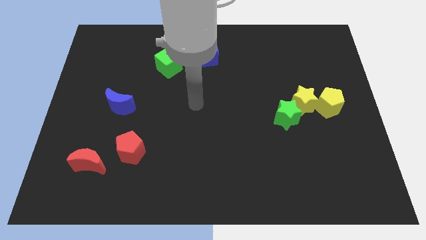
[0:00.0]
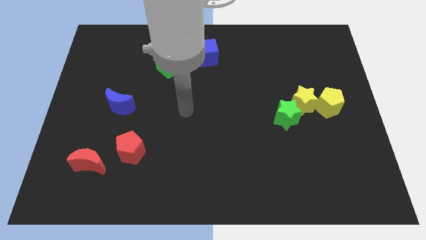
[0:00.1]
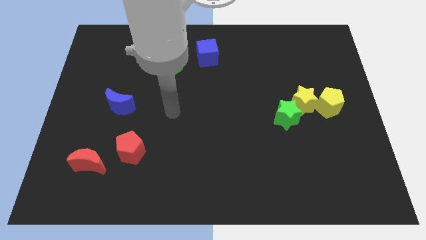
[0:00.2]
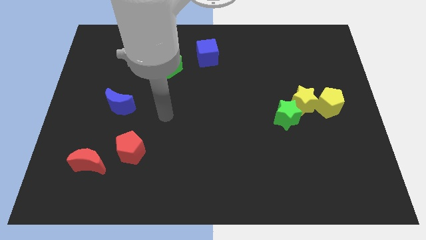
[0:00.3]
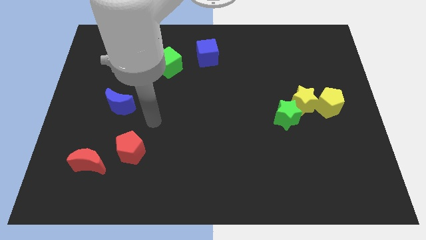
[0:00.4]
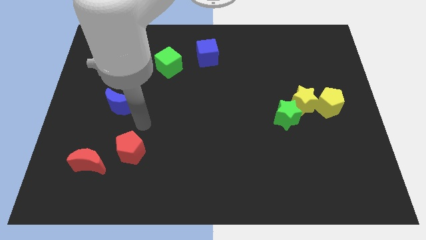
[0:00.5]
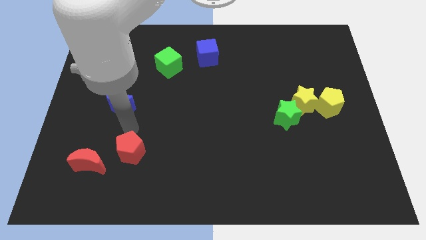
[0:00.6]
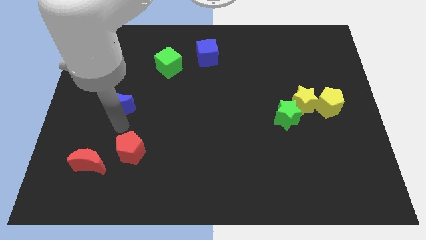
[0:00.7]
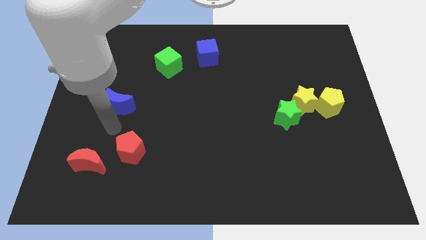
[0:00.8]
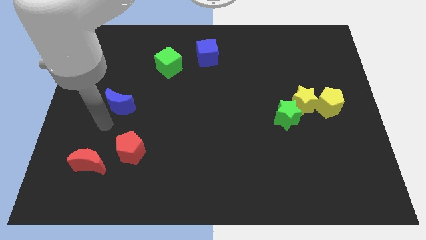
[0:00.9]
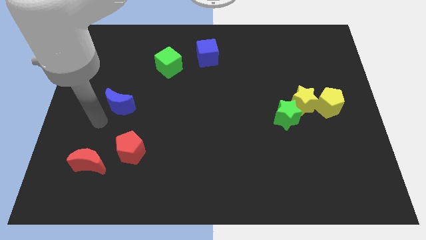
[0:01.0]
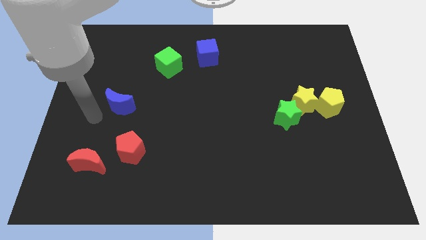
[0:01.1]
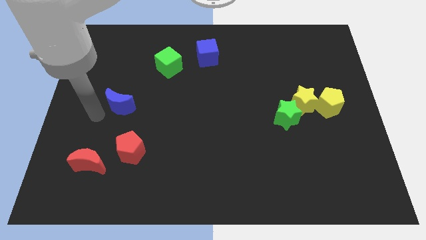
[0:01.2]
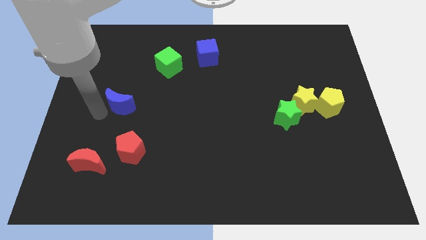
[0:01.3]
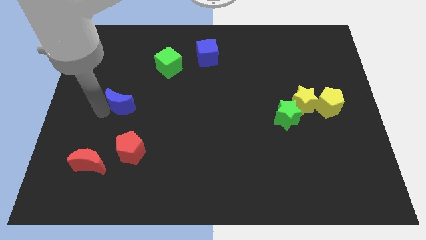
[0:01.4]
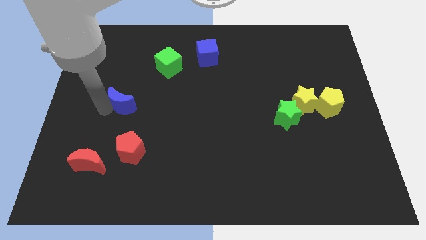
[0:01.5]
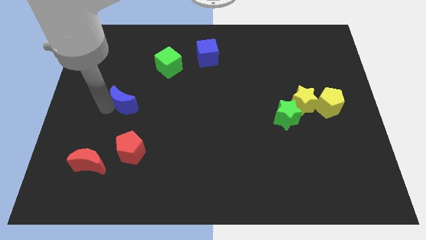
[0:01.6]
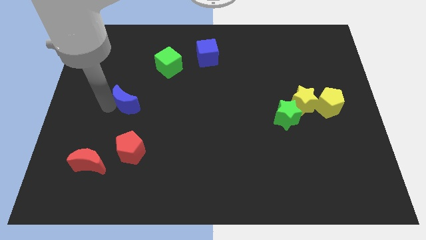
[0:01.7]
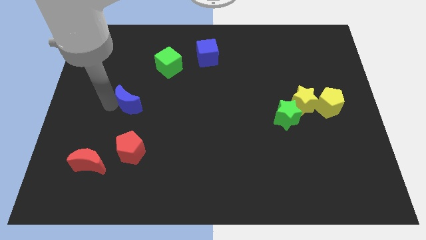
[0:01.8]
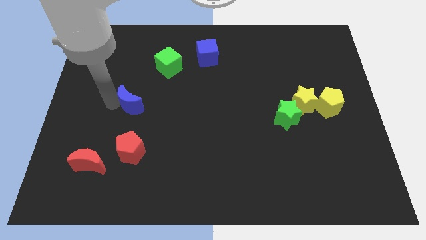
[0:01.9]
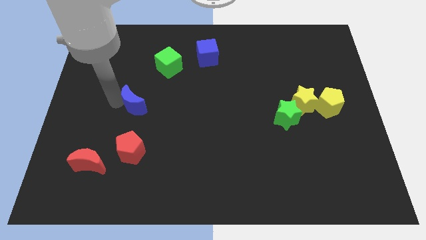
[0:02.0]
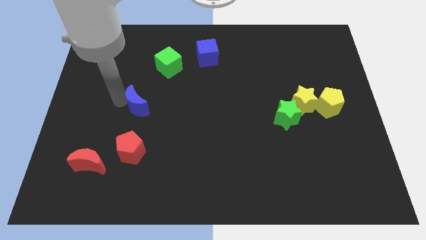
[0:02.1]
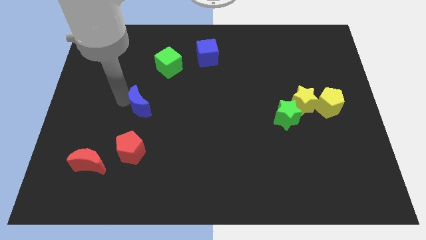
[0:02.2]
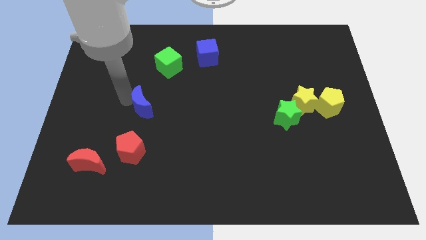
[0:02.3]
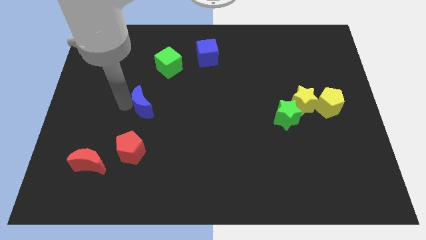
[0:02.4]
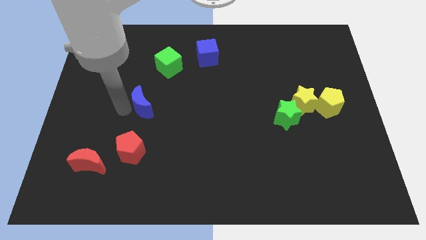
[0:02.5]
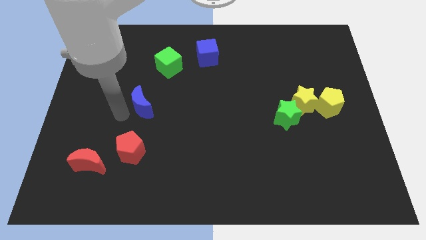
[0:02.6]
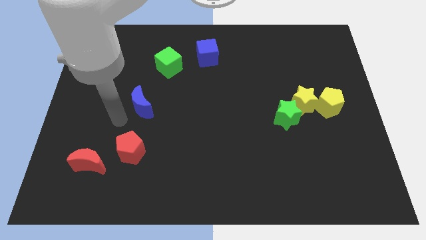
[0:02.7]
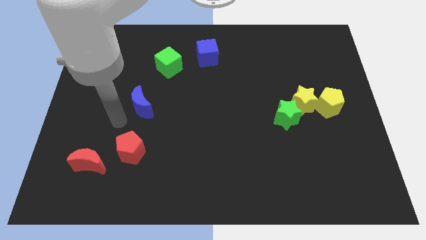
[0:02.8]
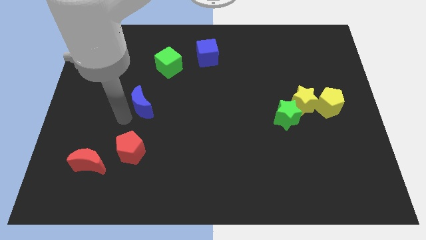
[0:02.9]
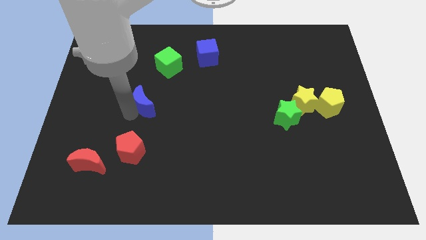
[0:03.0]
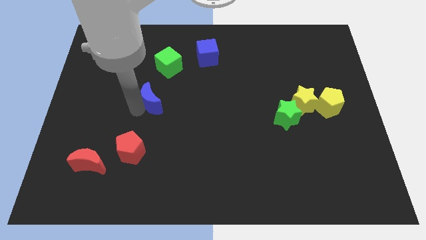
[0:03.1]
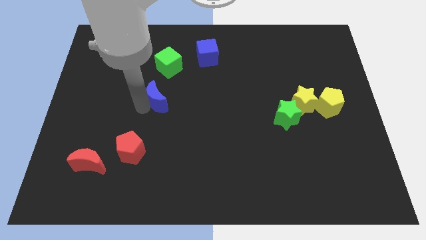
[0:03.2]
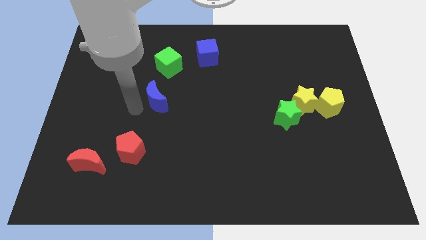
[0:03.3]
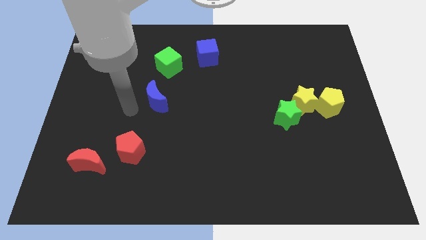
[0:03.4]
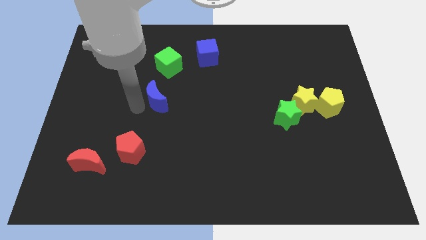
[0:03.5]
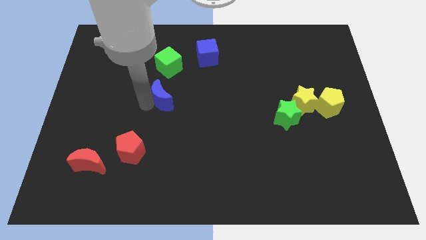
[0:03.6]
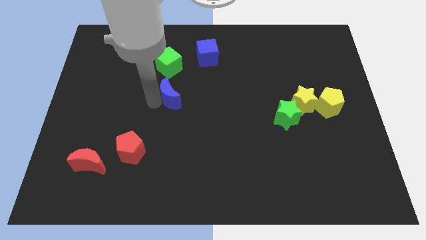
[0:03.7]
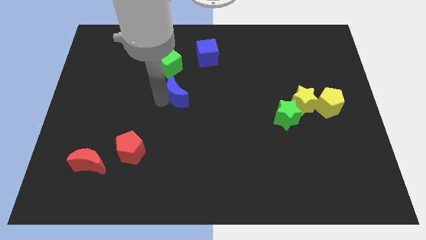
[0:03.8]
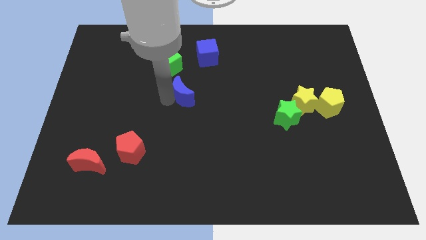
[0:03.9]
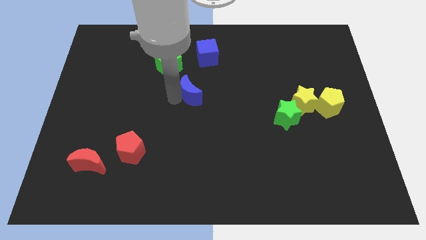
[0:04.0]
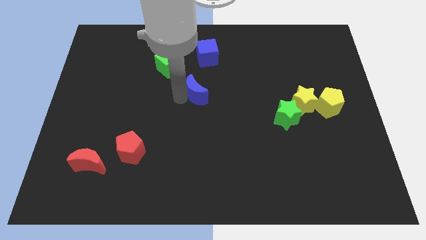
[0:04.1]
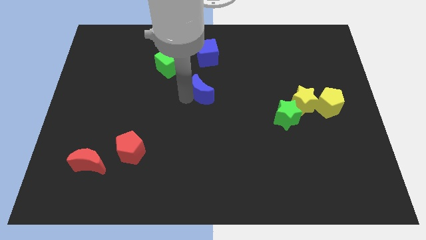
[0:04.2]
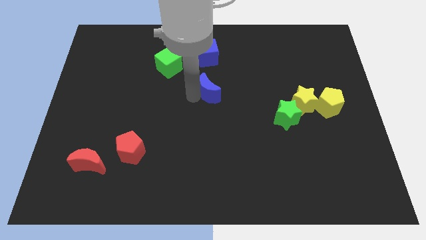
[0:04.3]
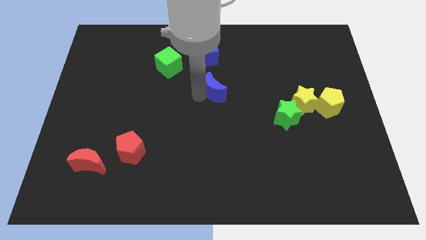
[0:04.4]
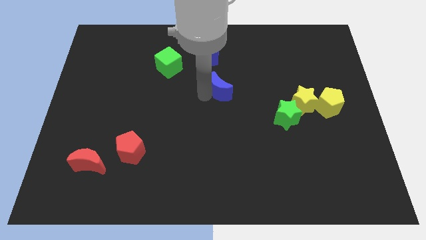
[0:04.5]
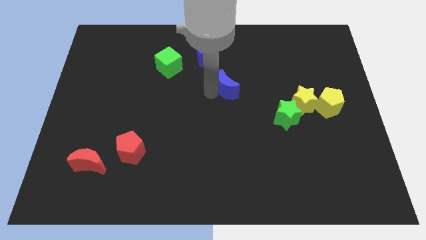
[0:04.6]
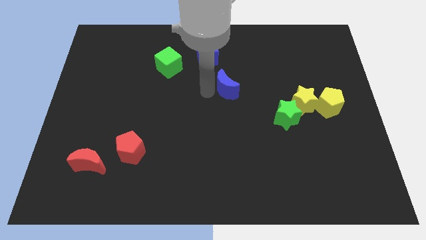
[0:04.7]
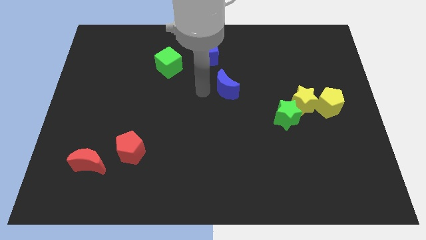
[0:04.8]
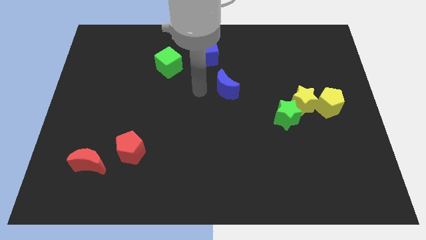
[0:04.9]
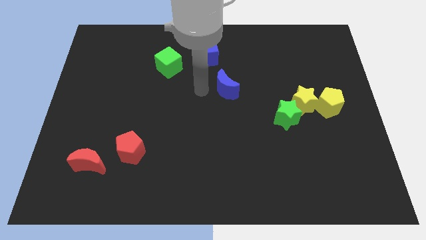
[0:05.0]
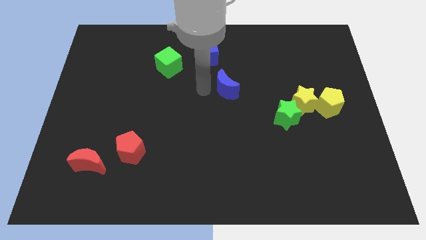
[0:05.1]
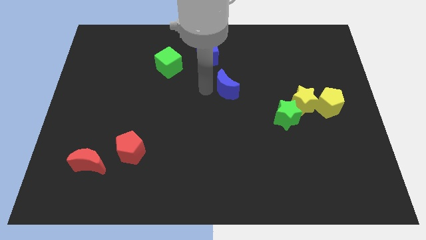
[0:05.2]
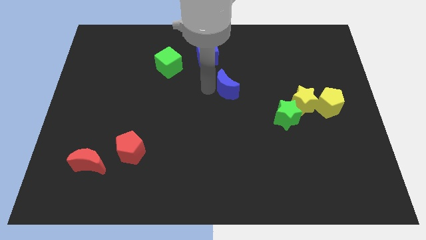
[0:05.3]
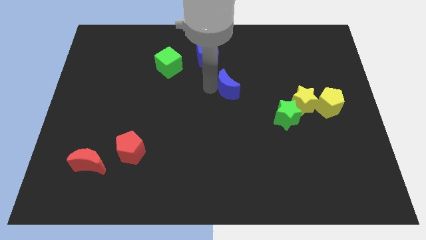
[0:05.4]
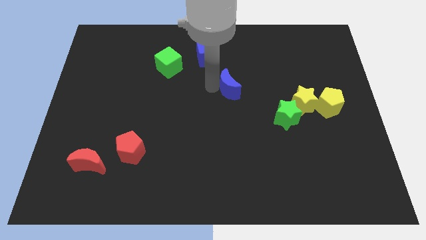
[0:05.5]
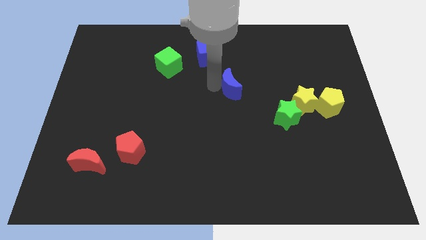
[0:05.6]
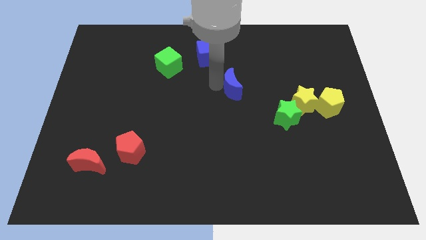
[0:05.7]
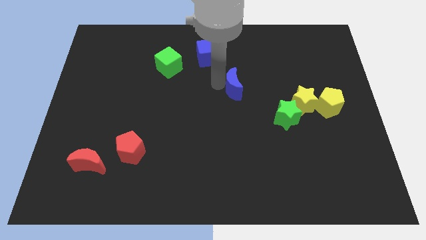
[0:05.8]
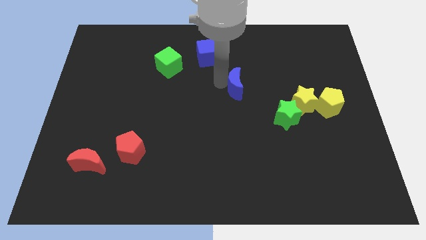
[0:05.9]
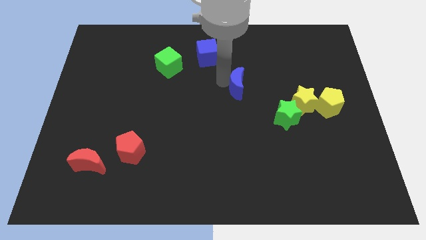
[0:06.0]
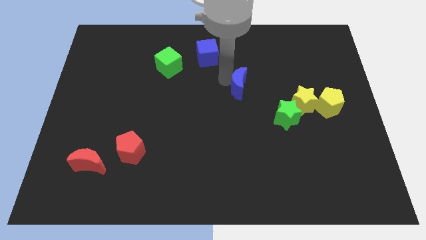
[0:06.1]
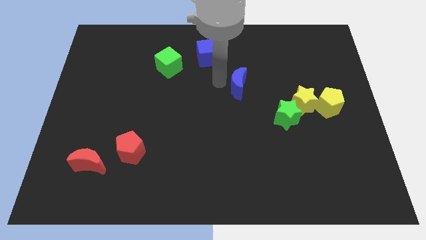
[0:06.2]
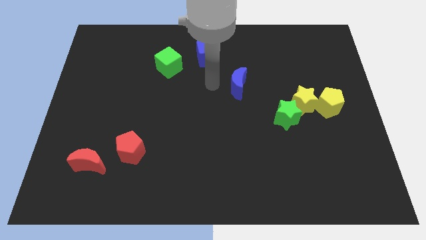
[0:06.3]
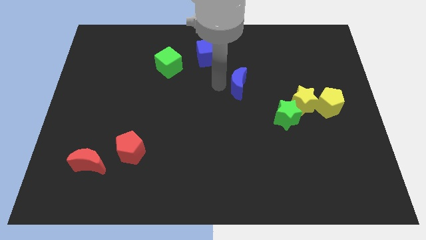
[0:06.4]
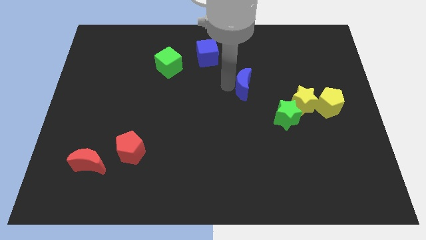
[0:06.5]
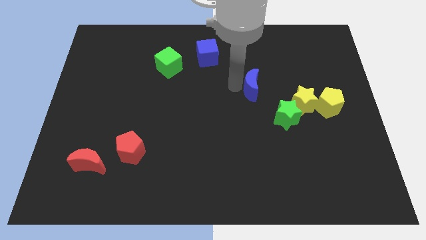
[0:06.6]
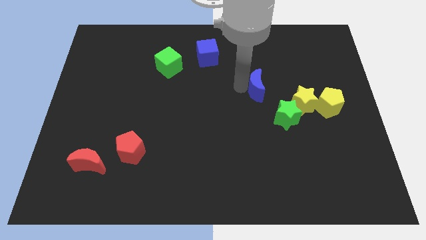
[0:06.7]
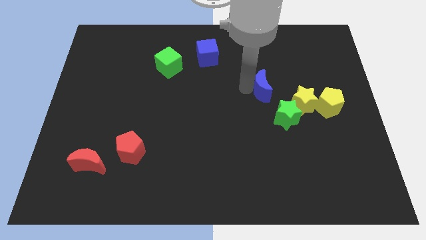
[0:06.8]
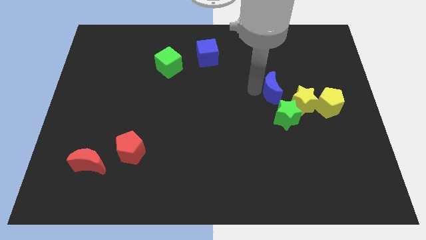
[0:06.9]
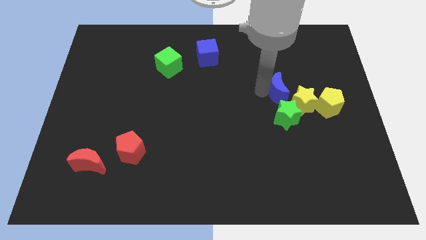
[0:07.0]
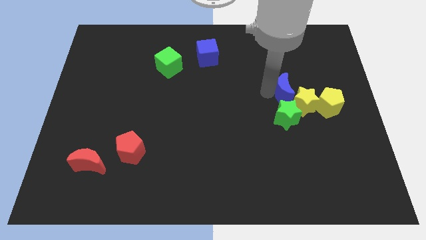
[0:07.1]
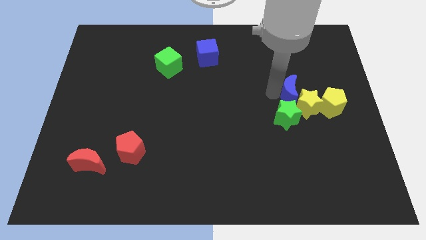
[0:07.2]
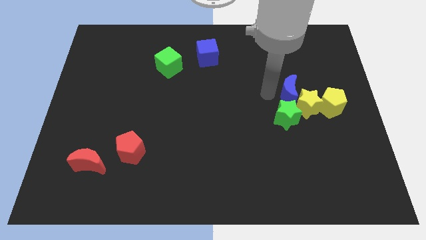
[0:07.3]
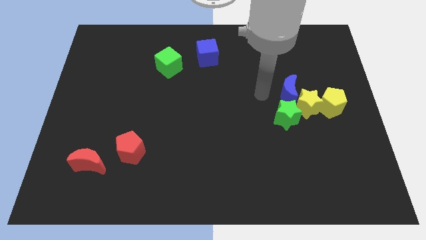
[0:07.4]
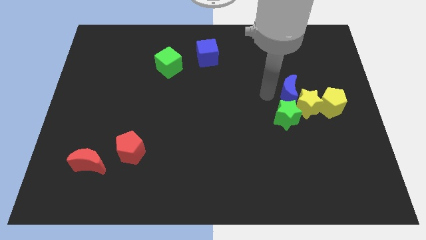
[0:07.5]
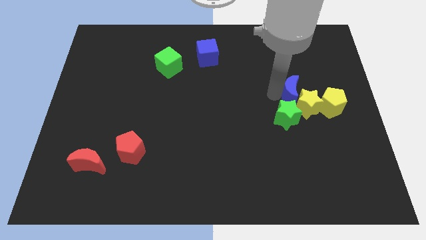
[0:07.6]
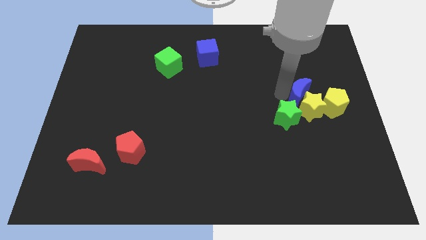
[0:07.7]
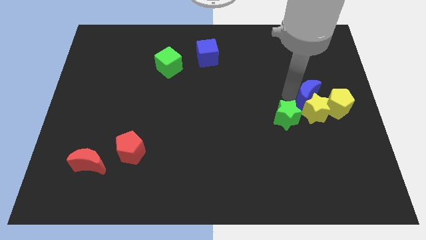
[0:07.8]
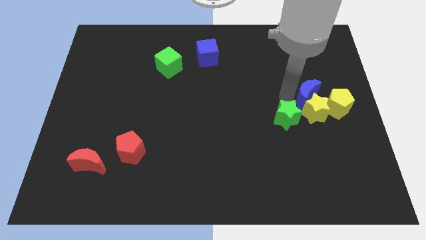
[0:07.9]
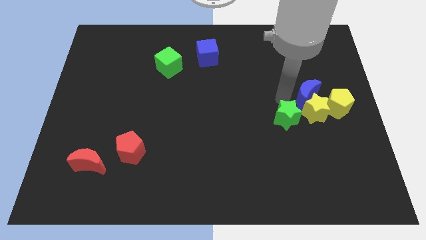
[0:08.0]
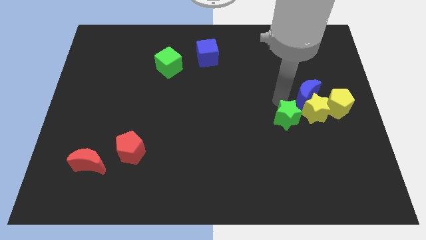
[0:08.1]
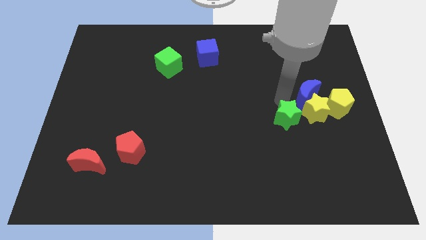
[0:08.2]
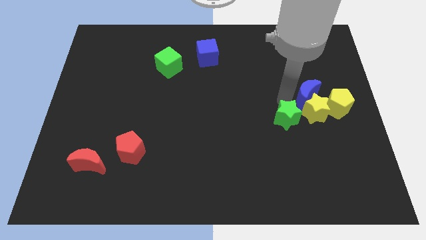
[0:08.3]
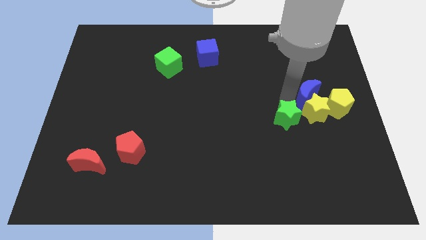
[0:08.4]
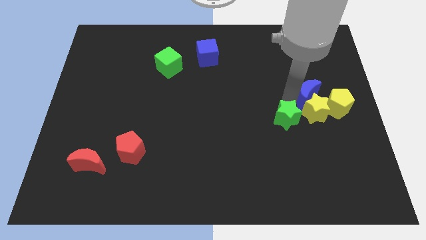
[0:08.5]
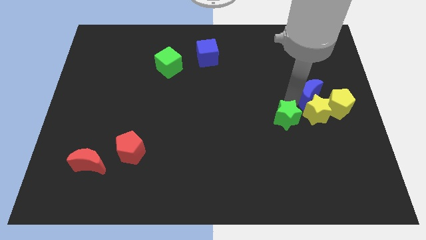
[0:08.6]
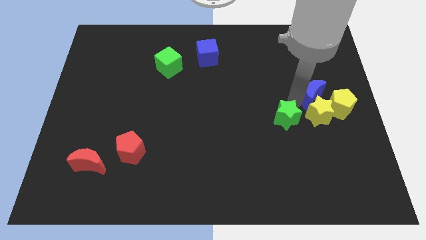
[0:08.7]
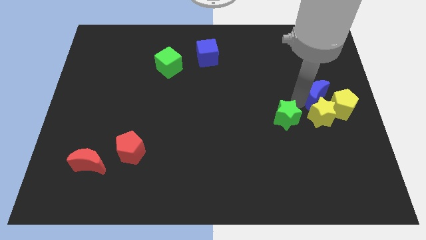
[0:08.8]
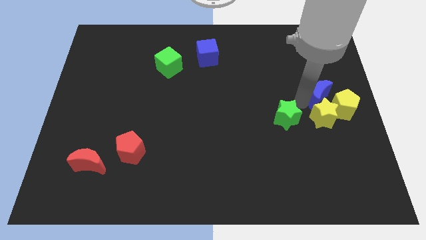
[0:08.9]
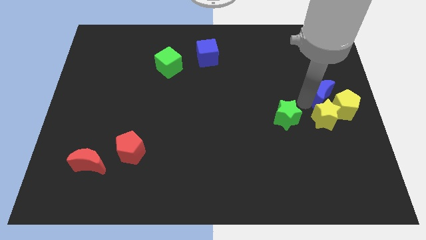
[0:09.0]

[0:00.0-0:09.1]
push the blue moon towards the yellow pentagon
